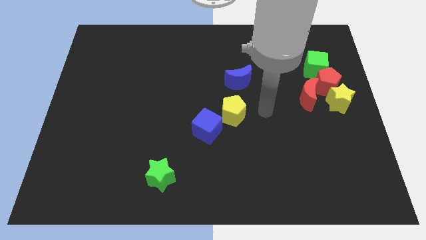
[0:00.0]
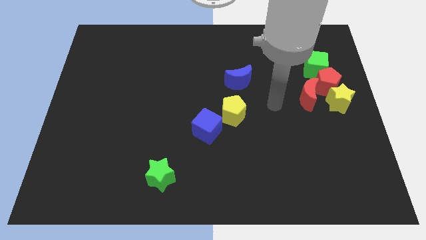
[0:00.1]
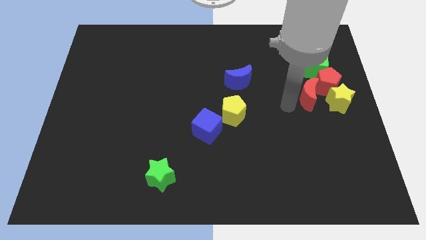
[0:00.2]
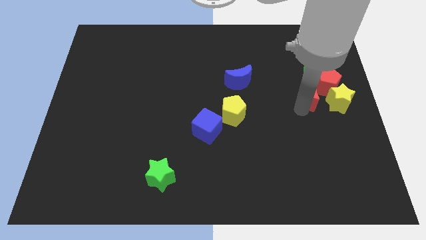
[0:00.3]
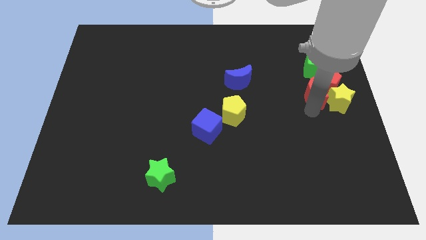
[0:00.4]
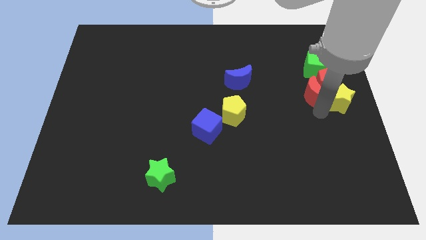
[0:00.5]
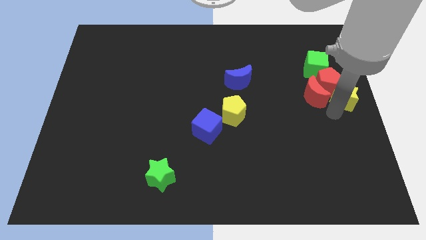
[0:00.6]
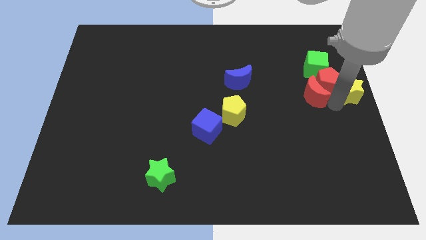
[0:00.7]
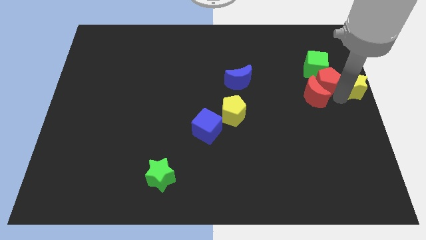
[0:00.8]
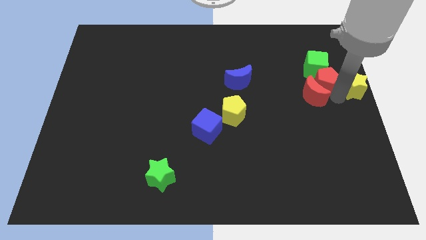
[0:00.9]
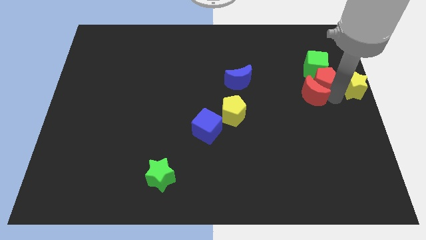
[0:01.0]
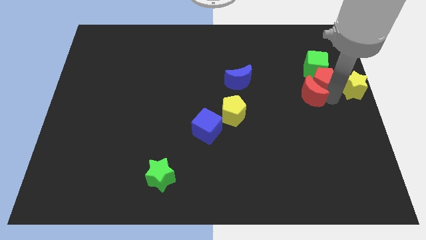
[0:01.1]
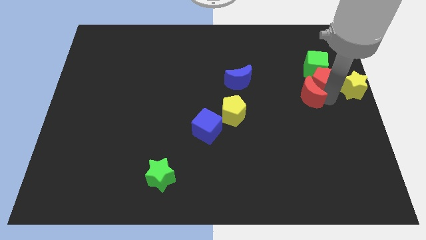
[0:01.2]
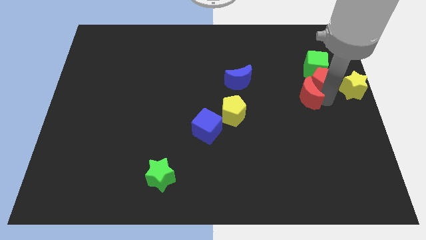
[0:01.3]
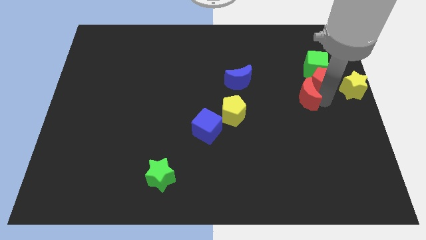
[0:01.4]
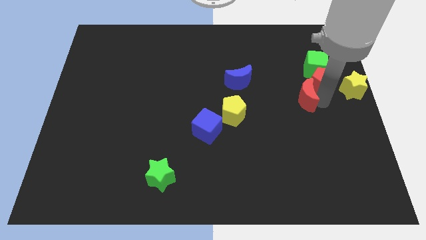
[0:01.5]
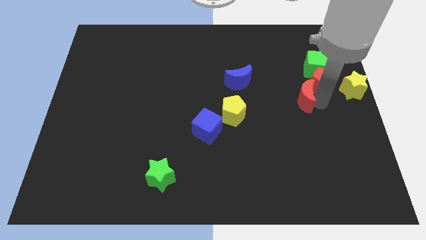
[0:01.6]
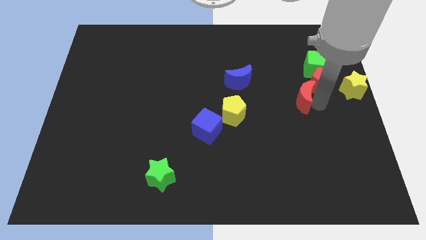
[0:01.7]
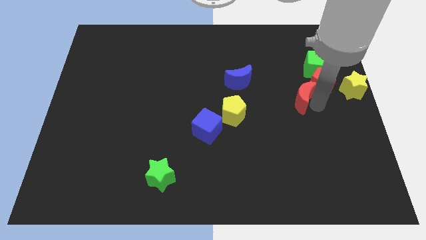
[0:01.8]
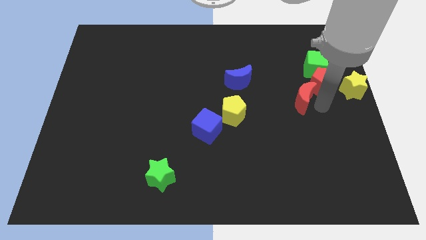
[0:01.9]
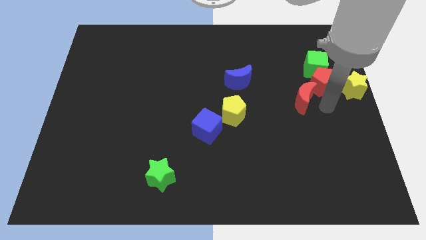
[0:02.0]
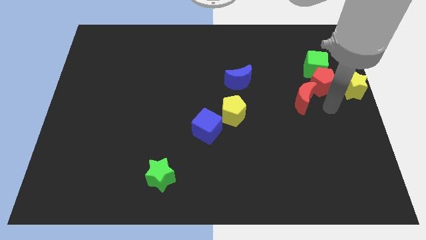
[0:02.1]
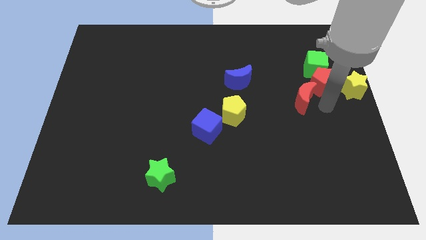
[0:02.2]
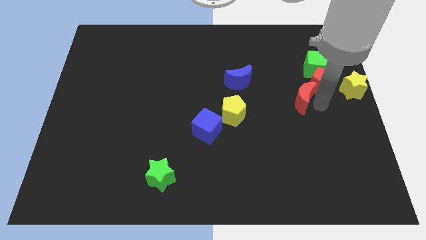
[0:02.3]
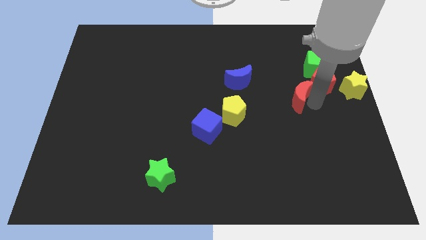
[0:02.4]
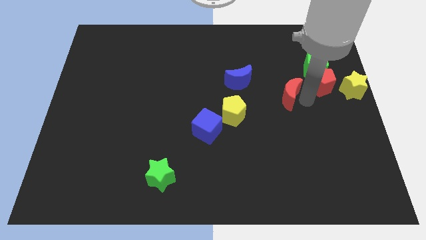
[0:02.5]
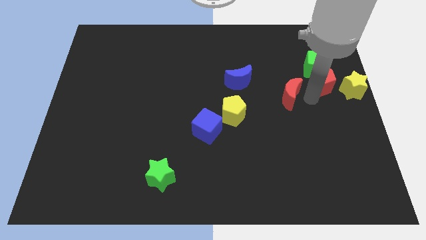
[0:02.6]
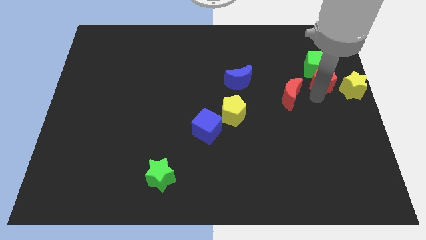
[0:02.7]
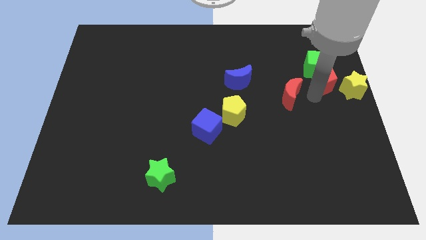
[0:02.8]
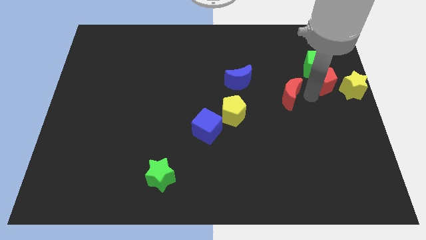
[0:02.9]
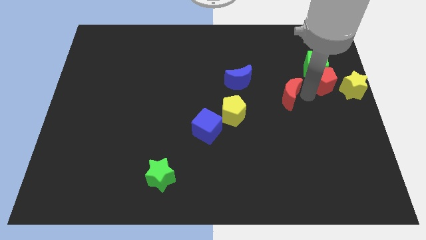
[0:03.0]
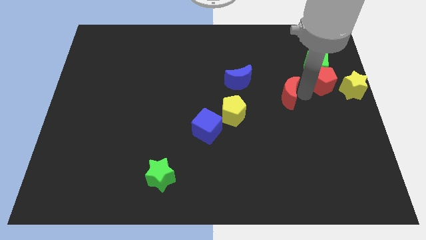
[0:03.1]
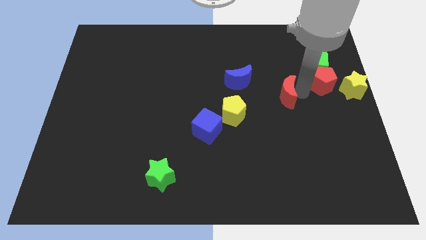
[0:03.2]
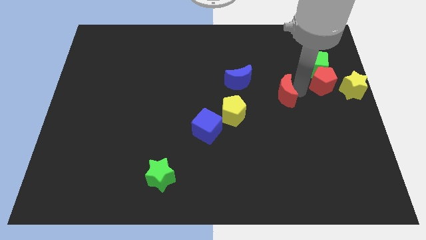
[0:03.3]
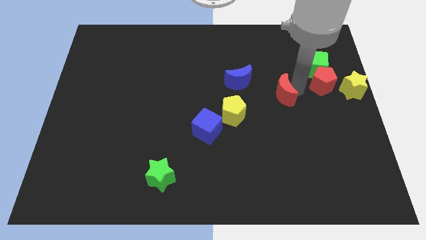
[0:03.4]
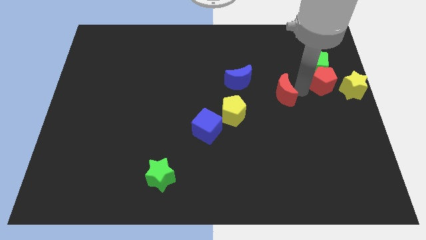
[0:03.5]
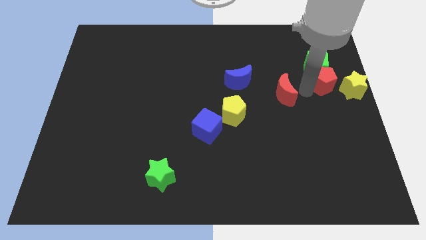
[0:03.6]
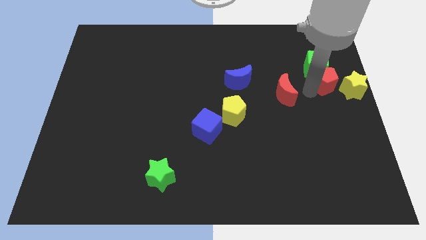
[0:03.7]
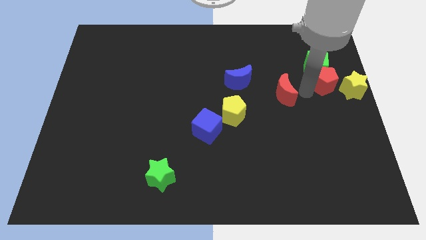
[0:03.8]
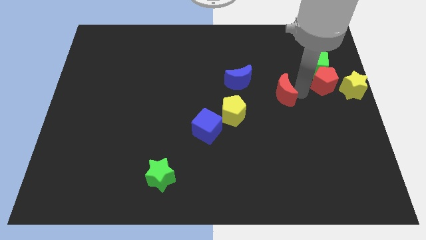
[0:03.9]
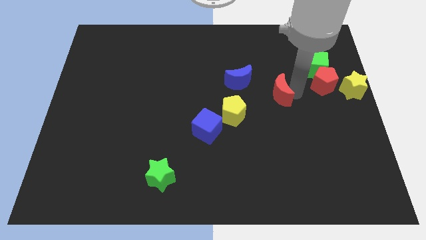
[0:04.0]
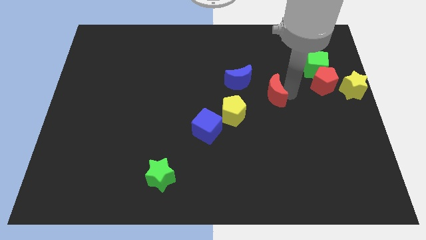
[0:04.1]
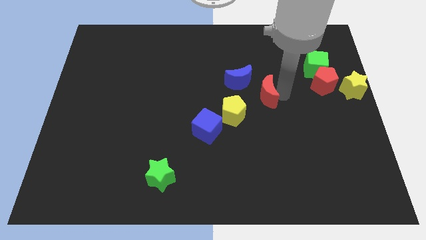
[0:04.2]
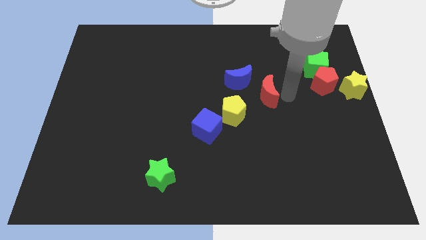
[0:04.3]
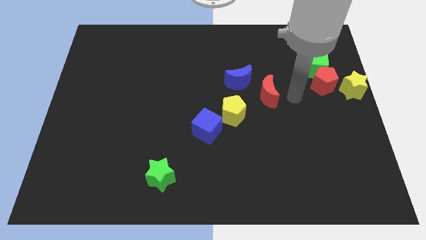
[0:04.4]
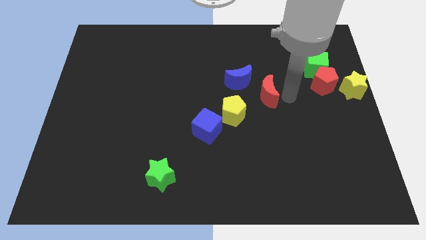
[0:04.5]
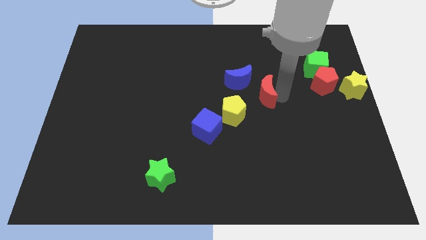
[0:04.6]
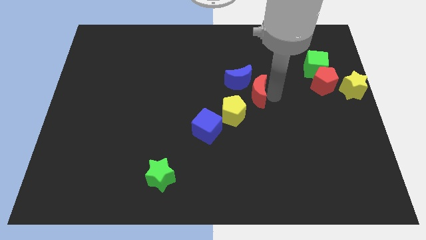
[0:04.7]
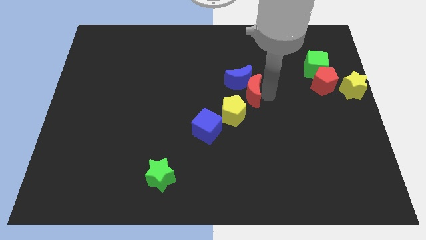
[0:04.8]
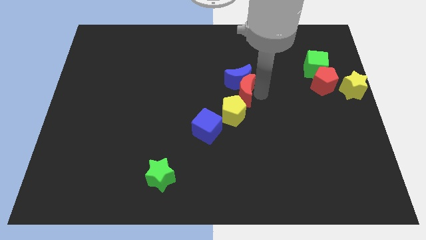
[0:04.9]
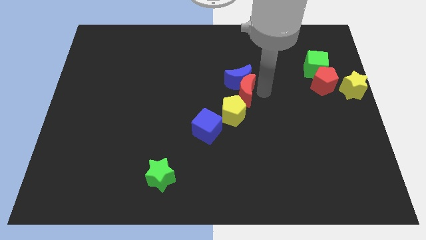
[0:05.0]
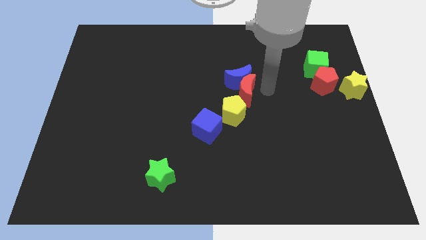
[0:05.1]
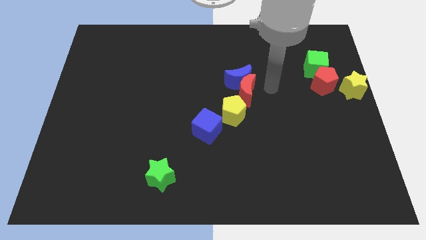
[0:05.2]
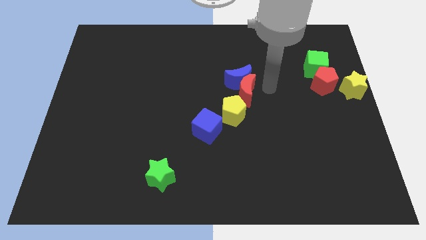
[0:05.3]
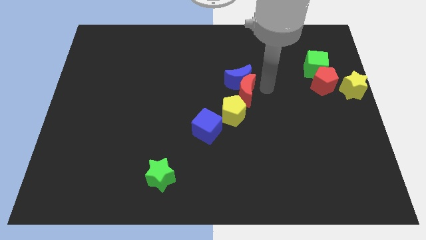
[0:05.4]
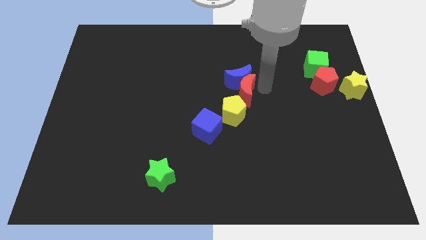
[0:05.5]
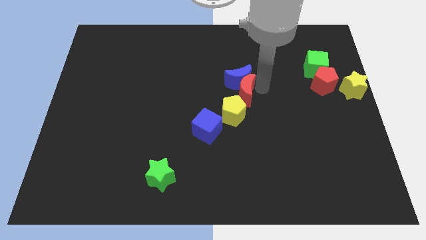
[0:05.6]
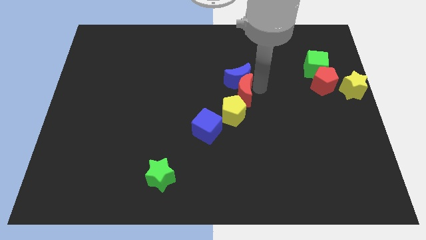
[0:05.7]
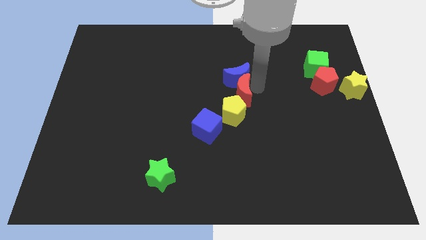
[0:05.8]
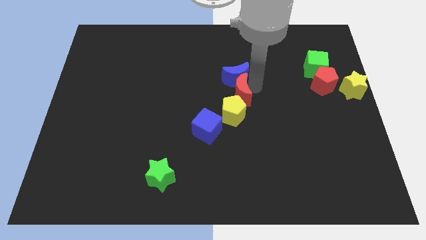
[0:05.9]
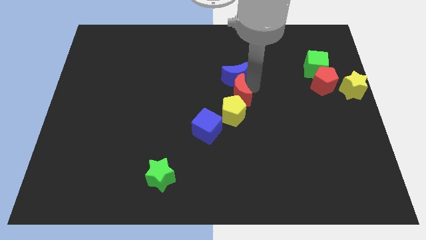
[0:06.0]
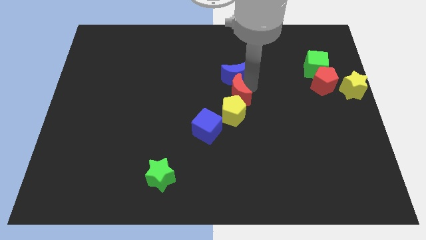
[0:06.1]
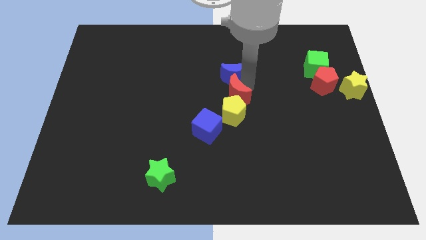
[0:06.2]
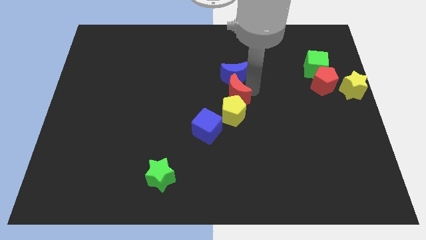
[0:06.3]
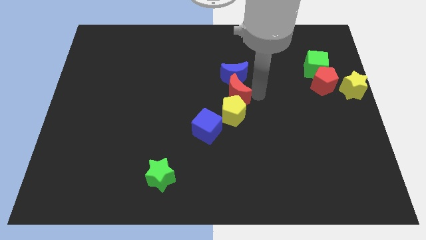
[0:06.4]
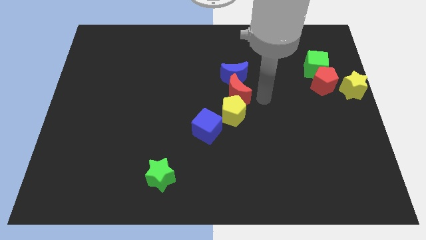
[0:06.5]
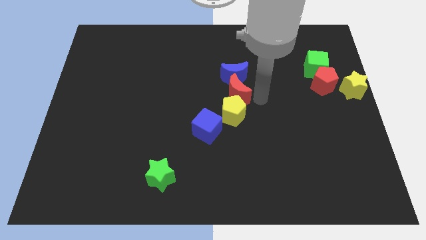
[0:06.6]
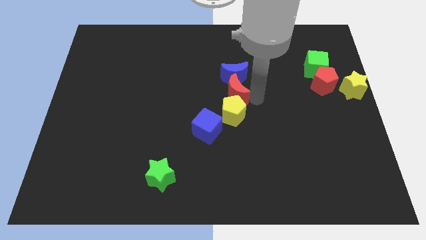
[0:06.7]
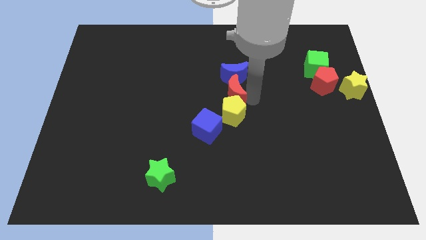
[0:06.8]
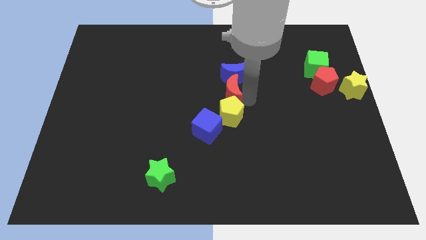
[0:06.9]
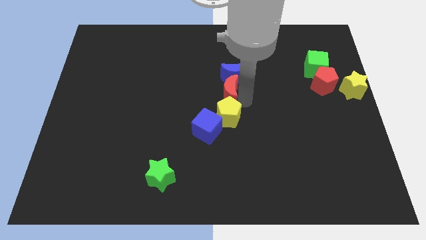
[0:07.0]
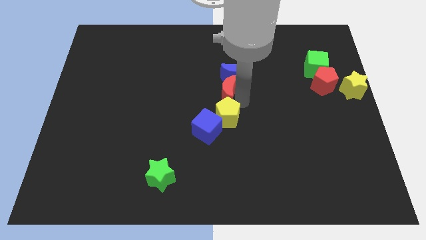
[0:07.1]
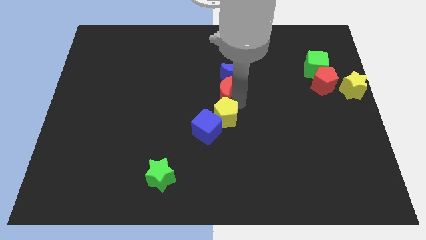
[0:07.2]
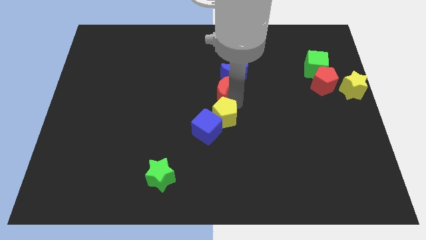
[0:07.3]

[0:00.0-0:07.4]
slide the red moon to the left
